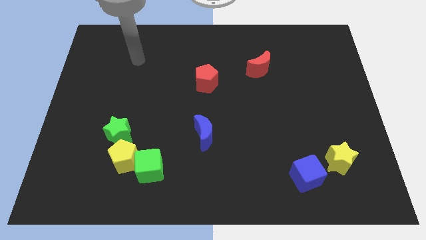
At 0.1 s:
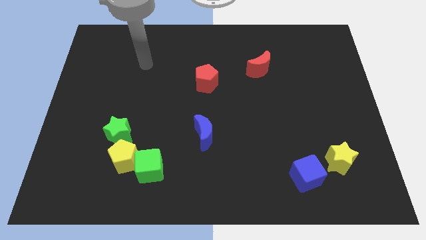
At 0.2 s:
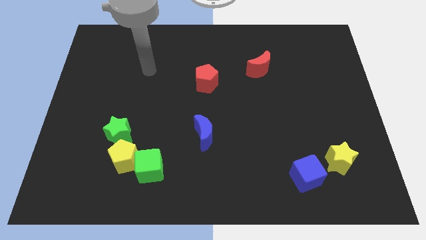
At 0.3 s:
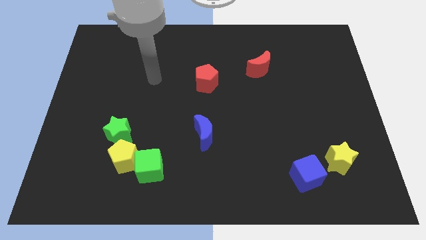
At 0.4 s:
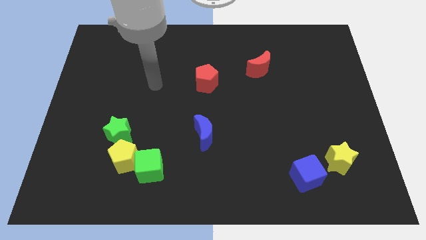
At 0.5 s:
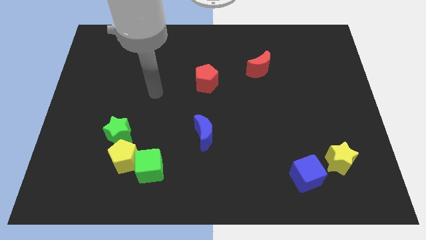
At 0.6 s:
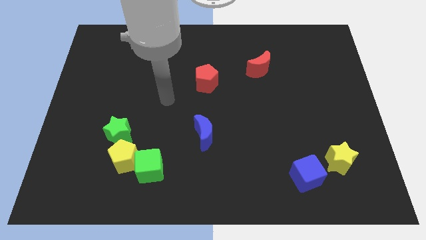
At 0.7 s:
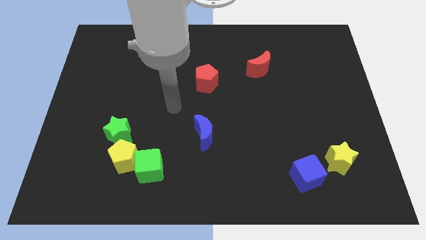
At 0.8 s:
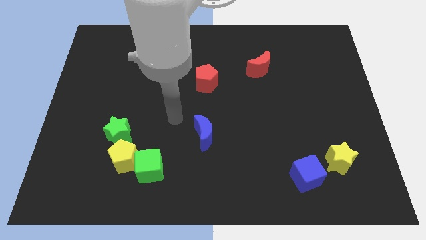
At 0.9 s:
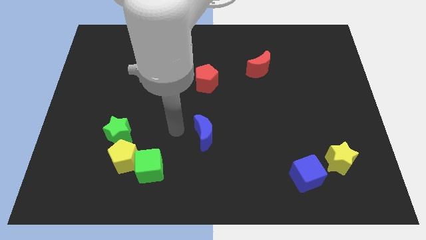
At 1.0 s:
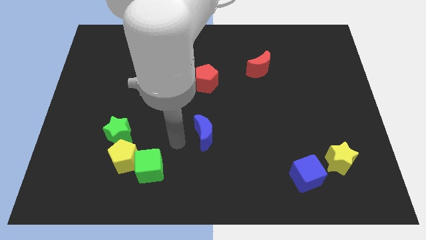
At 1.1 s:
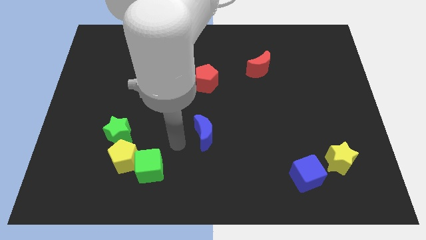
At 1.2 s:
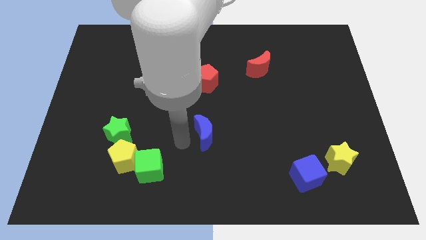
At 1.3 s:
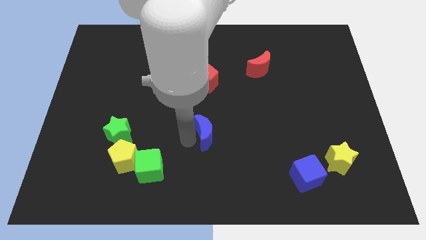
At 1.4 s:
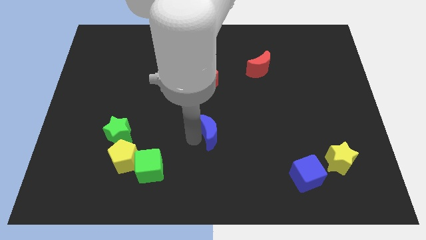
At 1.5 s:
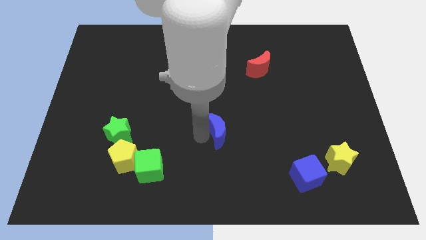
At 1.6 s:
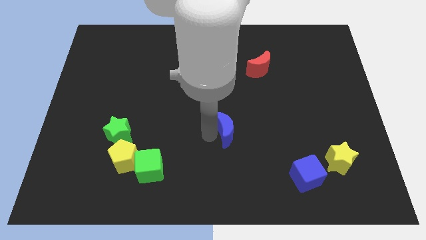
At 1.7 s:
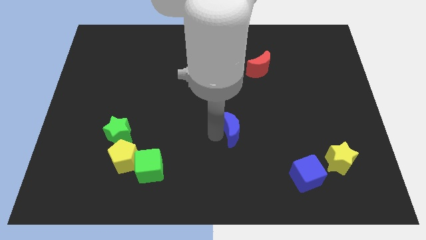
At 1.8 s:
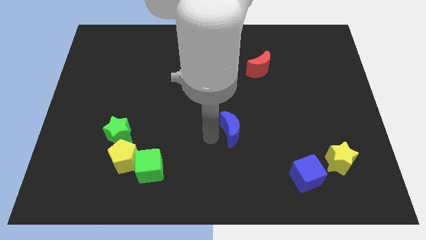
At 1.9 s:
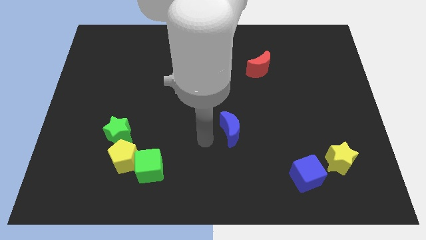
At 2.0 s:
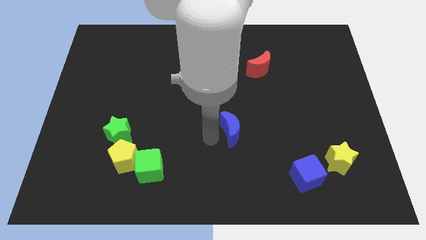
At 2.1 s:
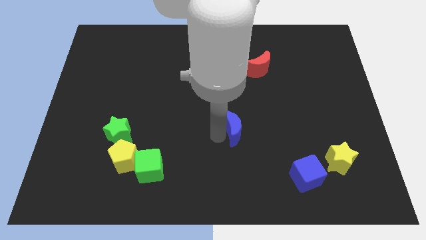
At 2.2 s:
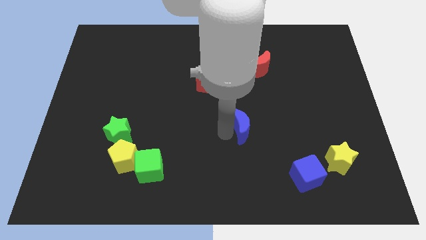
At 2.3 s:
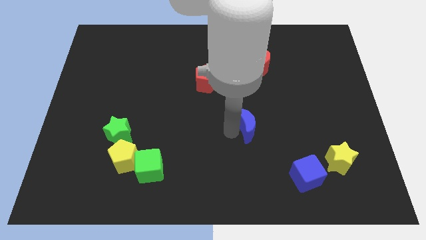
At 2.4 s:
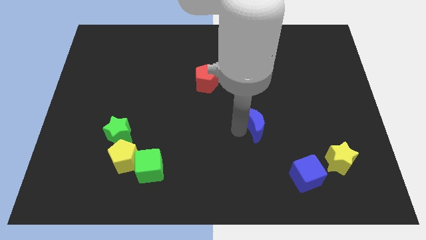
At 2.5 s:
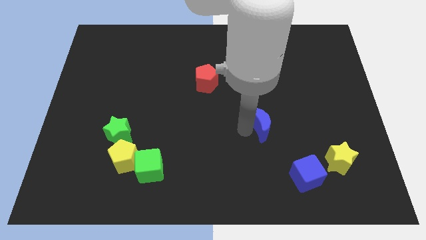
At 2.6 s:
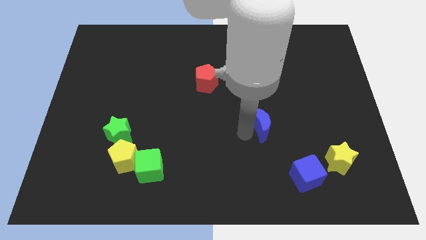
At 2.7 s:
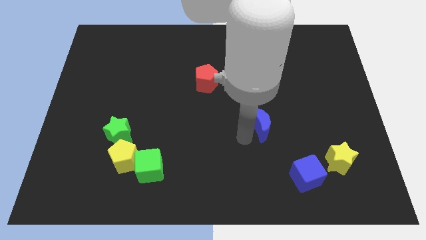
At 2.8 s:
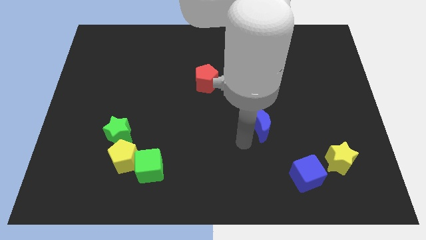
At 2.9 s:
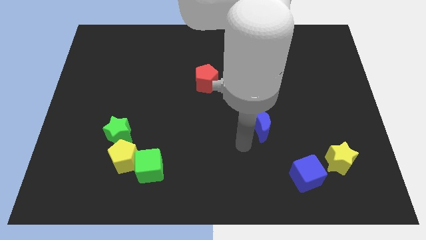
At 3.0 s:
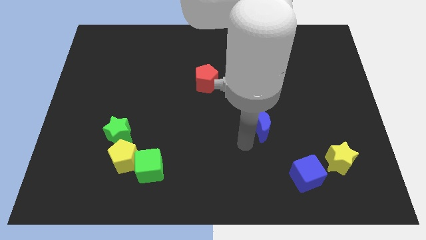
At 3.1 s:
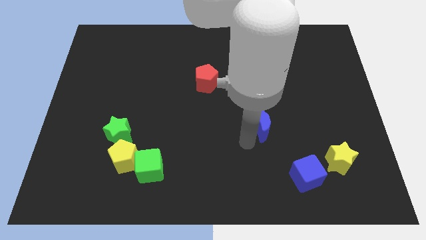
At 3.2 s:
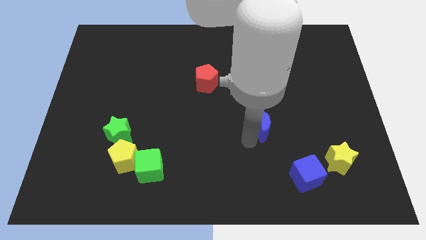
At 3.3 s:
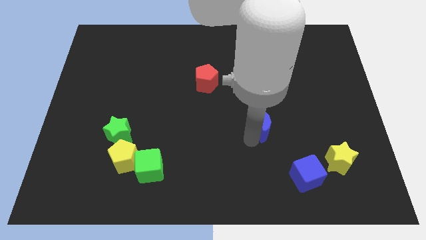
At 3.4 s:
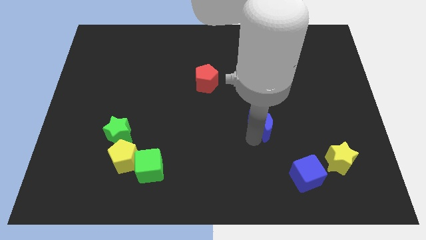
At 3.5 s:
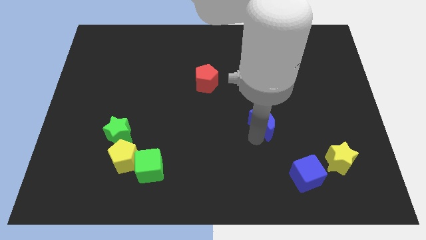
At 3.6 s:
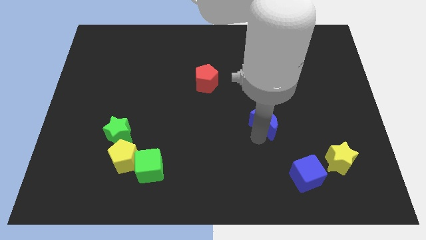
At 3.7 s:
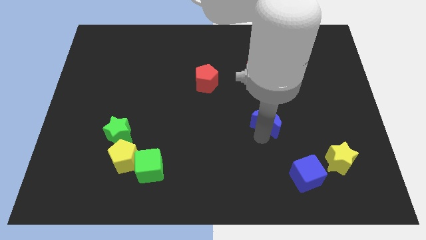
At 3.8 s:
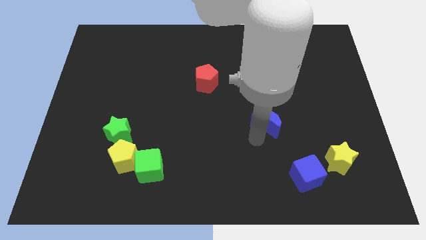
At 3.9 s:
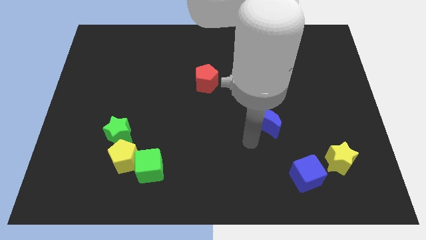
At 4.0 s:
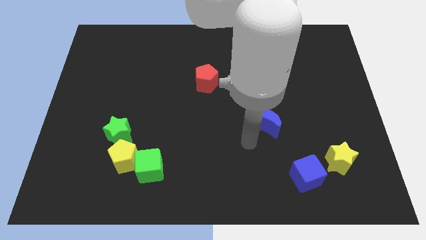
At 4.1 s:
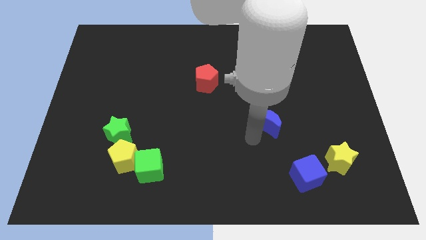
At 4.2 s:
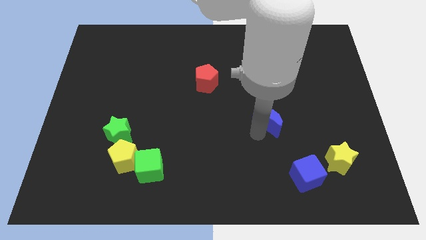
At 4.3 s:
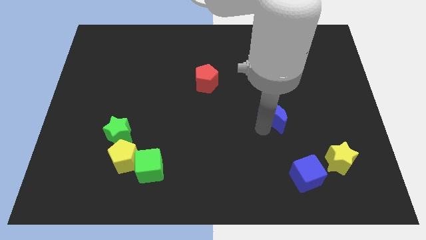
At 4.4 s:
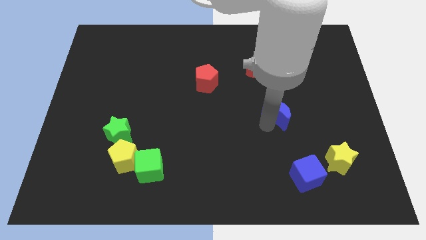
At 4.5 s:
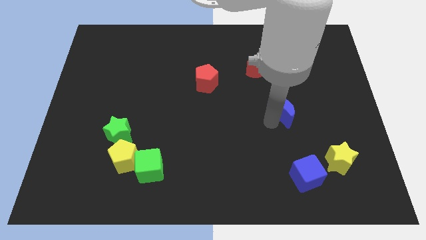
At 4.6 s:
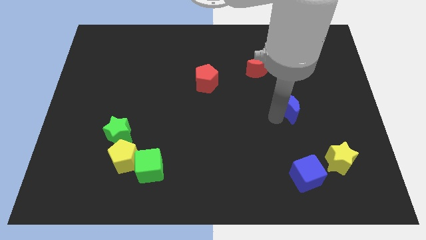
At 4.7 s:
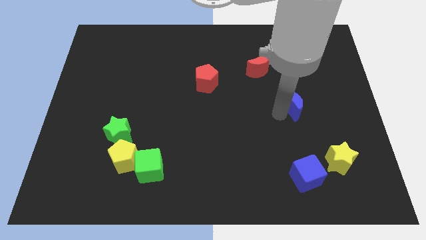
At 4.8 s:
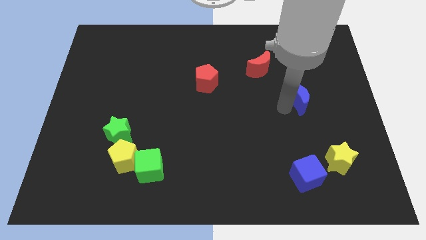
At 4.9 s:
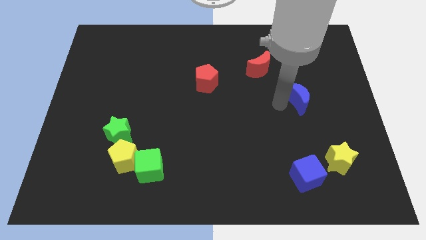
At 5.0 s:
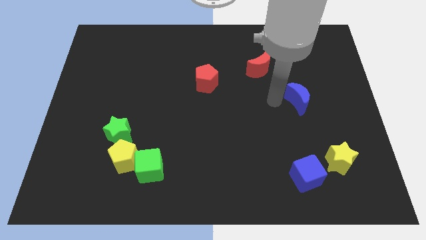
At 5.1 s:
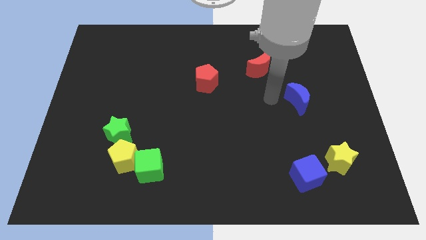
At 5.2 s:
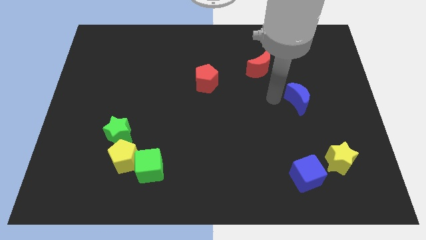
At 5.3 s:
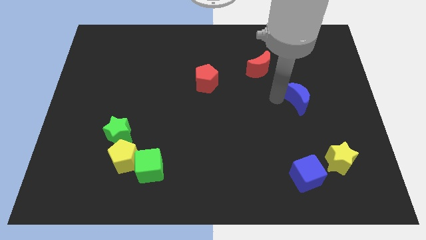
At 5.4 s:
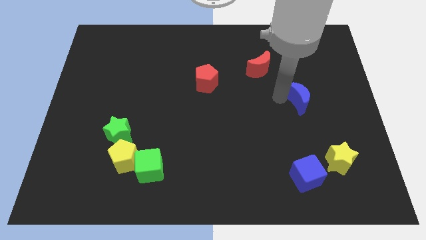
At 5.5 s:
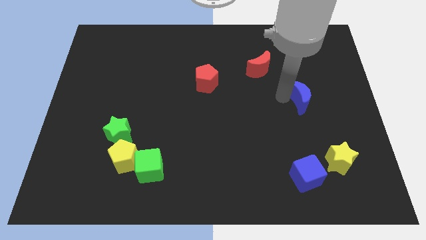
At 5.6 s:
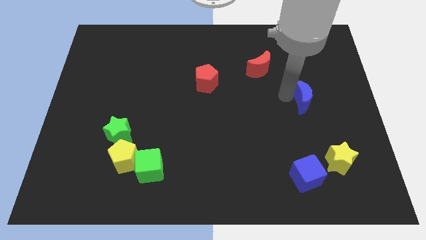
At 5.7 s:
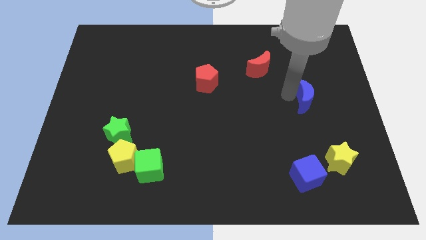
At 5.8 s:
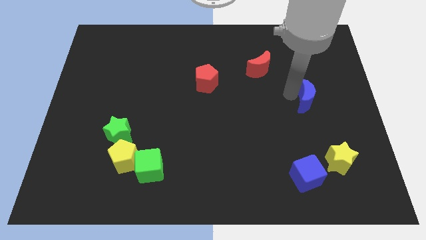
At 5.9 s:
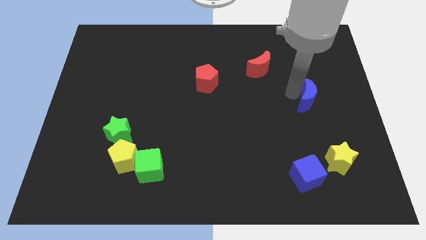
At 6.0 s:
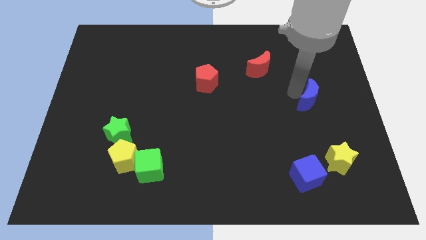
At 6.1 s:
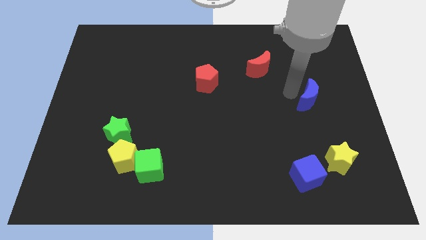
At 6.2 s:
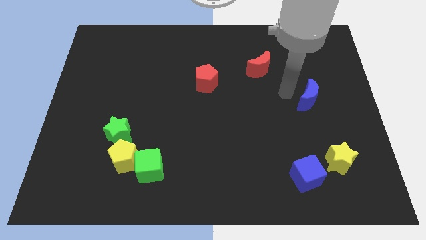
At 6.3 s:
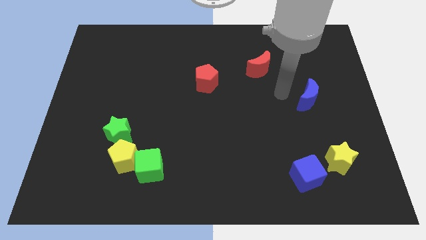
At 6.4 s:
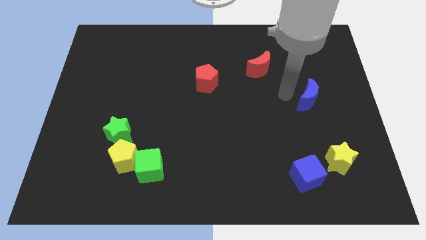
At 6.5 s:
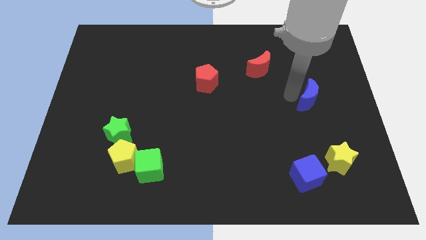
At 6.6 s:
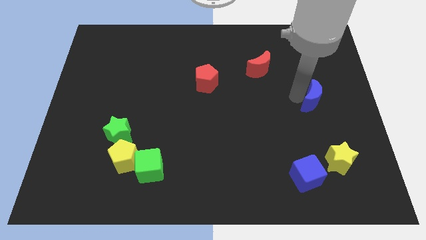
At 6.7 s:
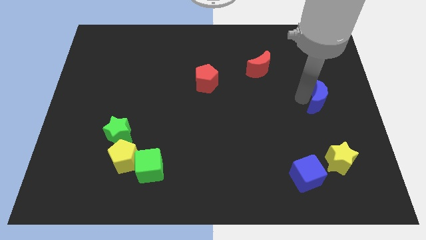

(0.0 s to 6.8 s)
move the blue moon to the right side of the board

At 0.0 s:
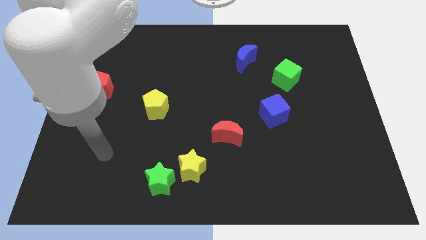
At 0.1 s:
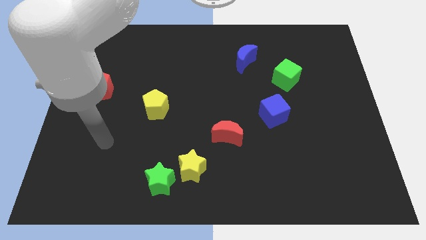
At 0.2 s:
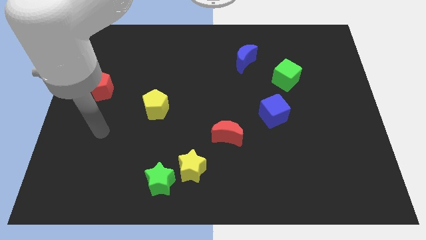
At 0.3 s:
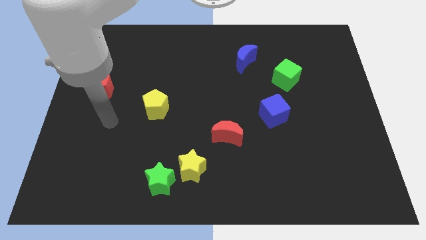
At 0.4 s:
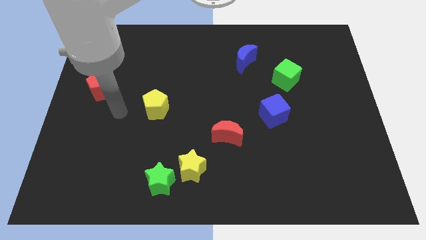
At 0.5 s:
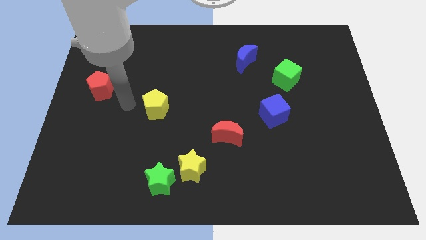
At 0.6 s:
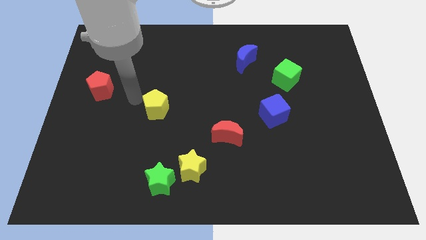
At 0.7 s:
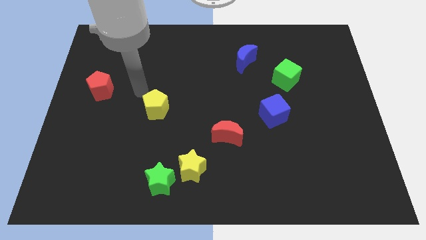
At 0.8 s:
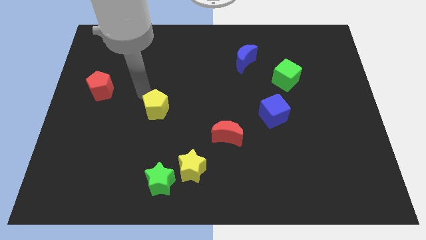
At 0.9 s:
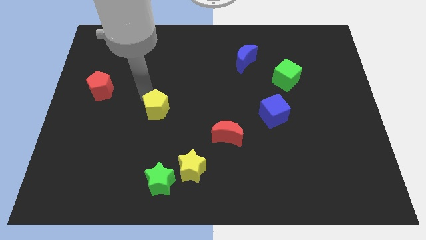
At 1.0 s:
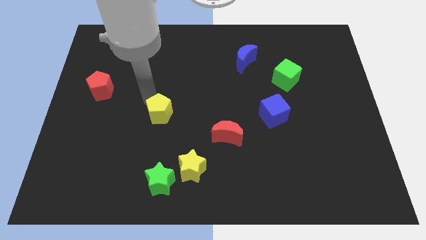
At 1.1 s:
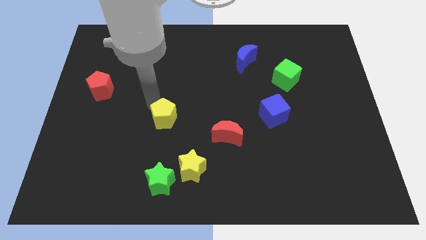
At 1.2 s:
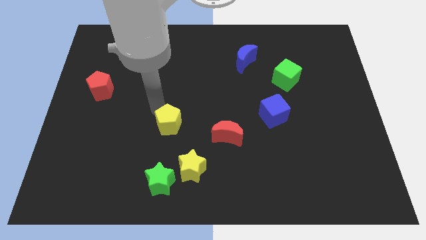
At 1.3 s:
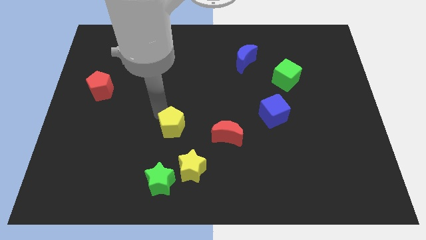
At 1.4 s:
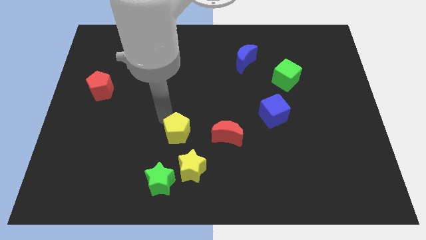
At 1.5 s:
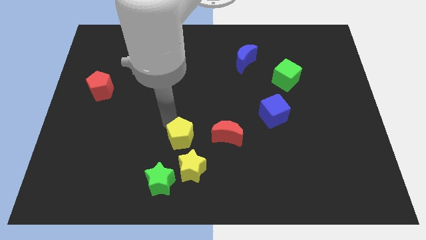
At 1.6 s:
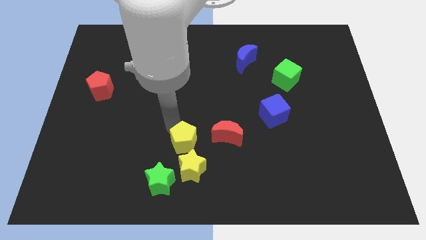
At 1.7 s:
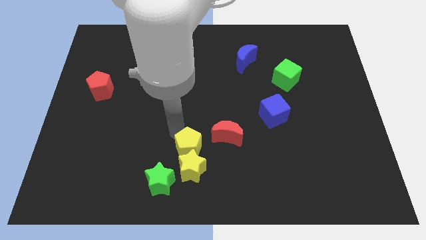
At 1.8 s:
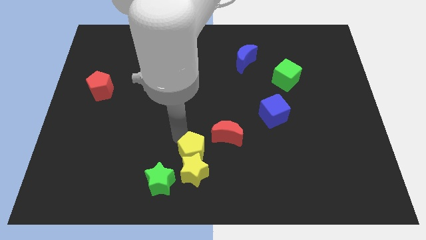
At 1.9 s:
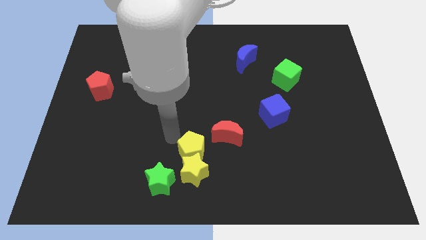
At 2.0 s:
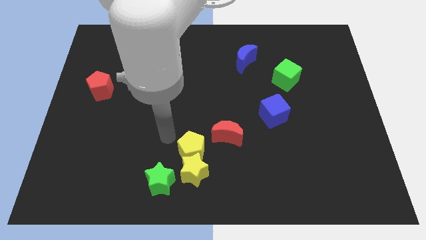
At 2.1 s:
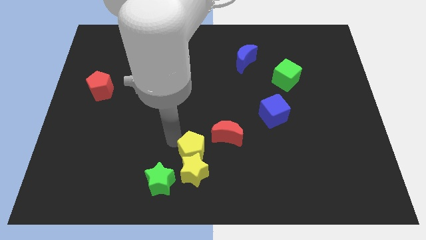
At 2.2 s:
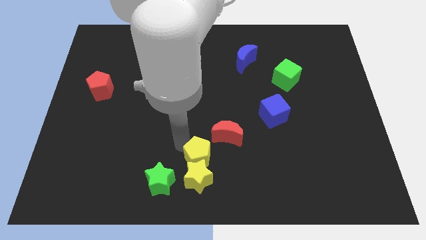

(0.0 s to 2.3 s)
put the yellow pentagon to the bottom
